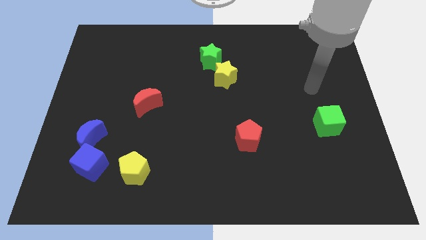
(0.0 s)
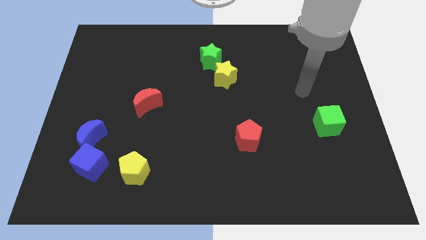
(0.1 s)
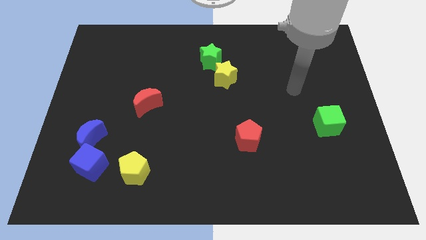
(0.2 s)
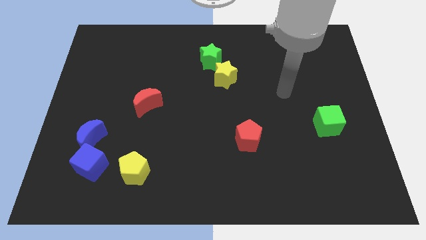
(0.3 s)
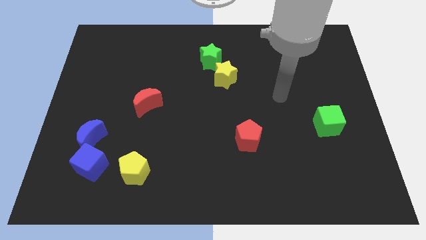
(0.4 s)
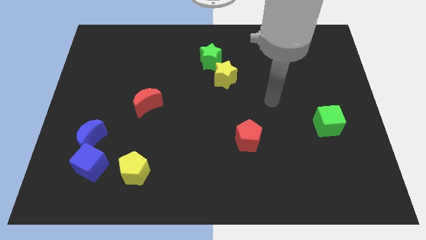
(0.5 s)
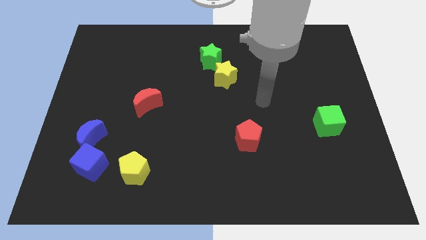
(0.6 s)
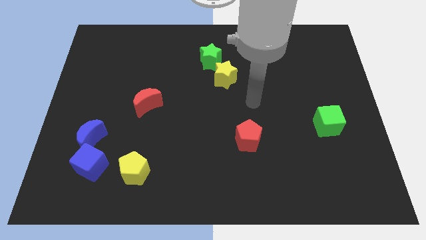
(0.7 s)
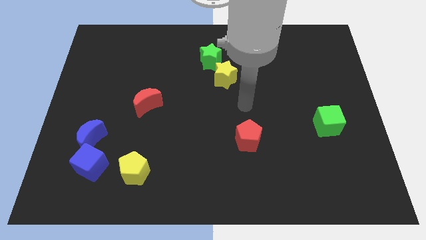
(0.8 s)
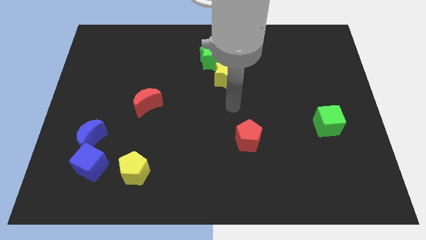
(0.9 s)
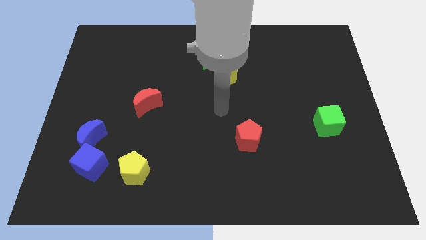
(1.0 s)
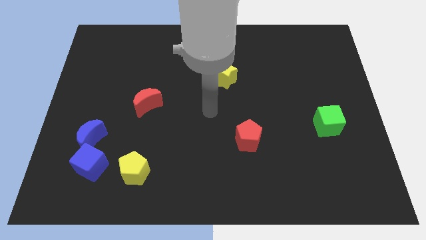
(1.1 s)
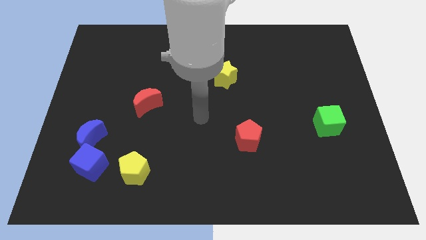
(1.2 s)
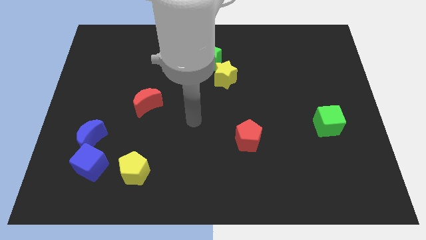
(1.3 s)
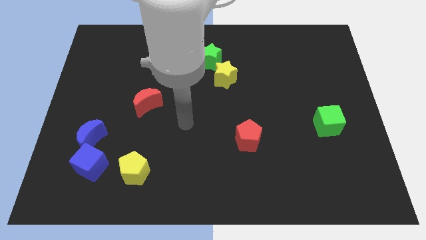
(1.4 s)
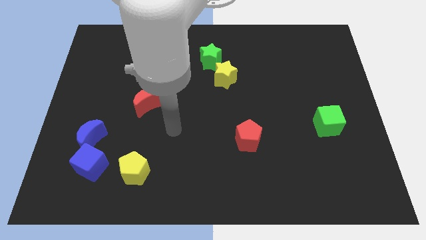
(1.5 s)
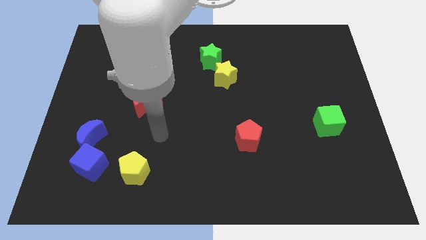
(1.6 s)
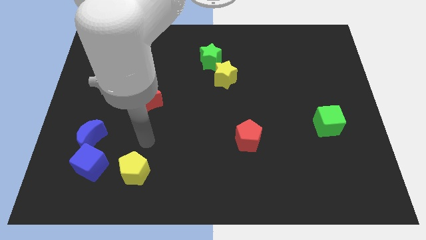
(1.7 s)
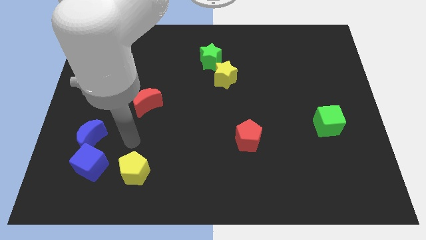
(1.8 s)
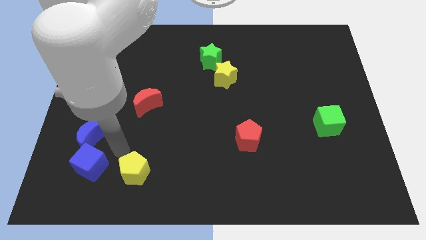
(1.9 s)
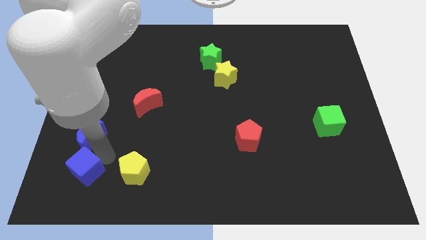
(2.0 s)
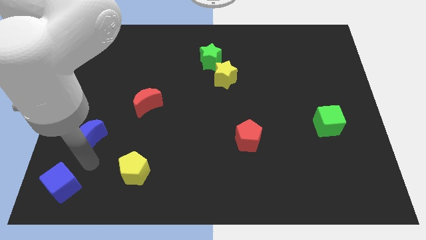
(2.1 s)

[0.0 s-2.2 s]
separate the blue moon from the blue cube

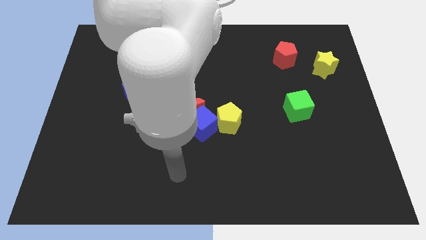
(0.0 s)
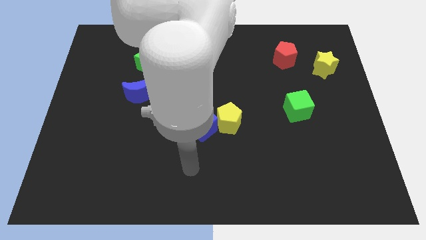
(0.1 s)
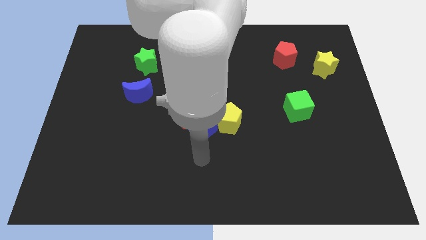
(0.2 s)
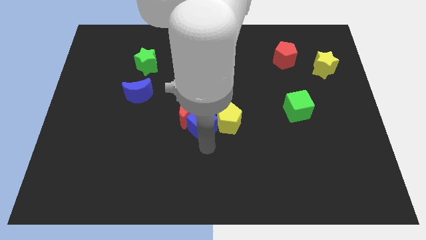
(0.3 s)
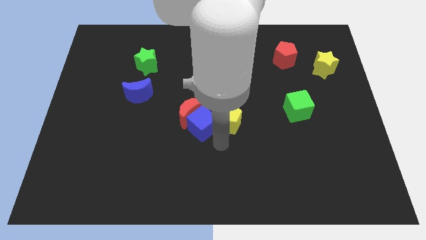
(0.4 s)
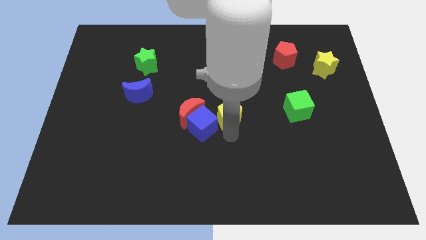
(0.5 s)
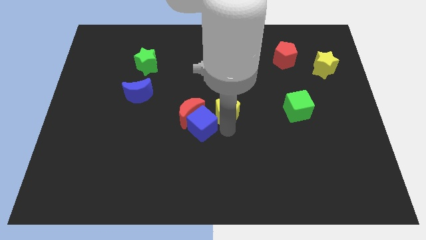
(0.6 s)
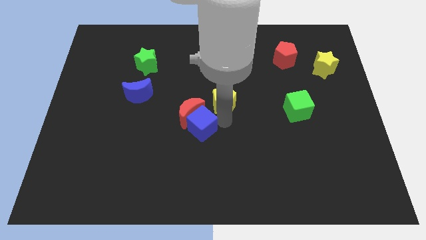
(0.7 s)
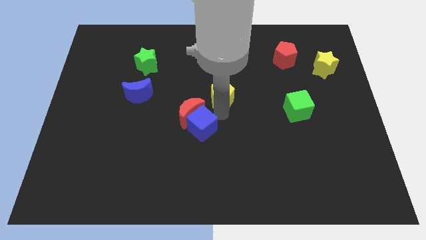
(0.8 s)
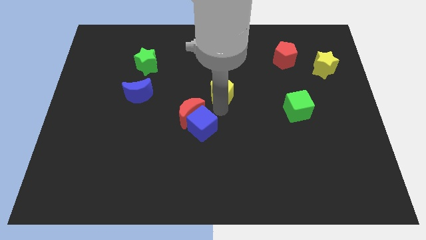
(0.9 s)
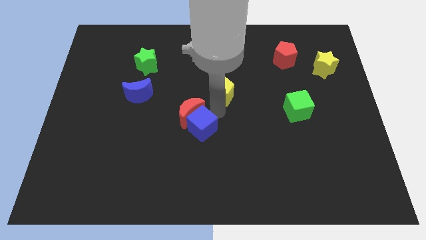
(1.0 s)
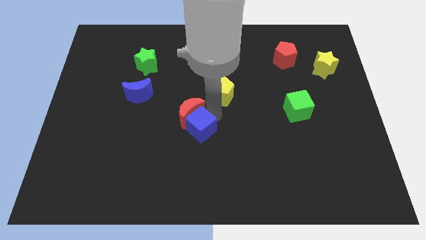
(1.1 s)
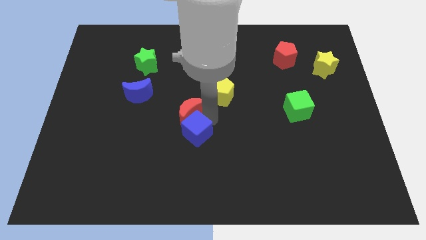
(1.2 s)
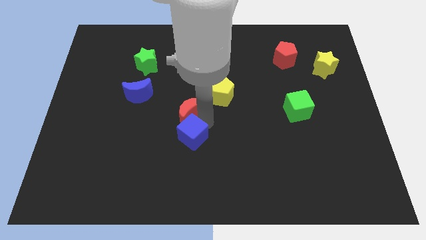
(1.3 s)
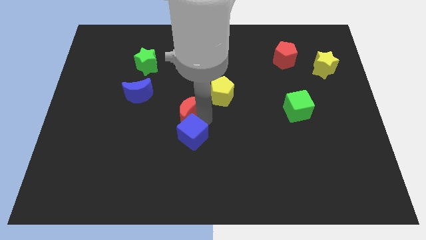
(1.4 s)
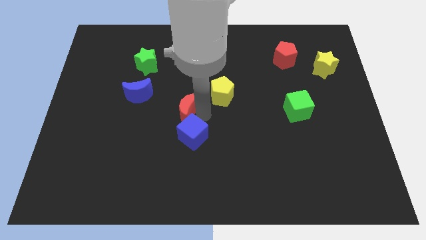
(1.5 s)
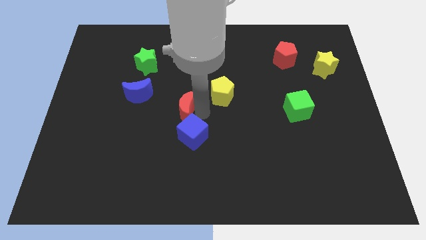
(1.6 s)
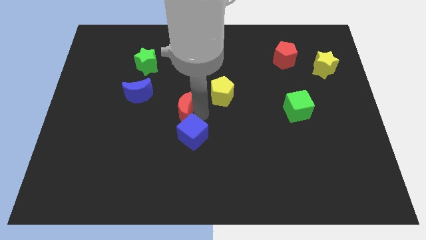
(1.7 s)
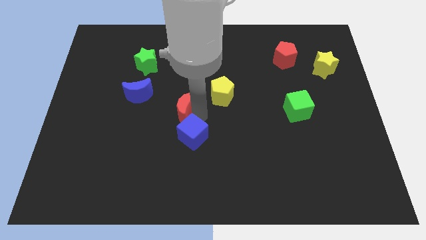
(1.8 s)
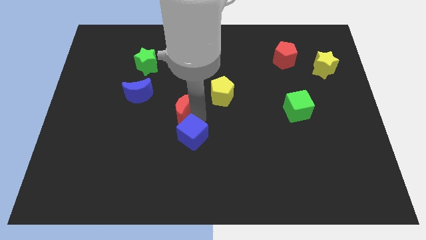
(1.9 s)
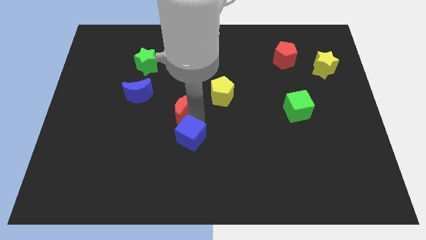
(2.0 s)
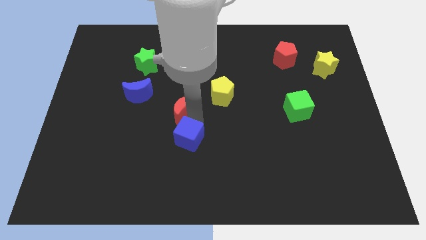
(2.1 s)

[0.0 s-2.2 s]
move the blue cube away from the red moon and yellow pentagon

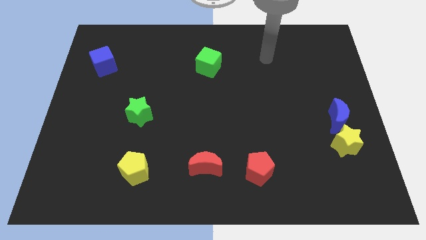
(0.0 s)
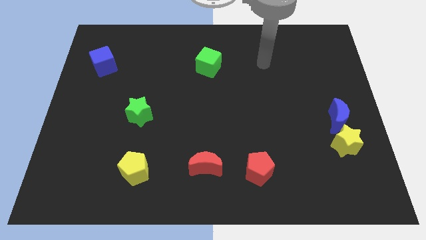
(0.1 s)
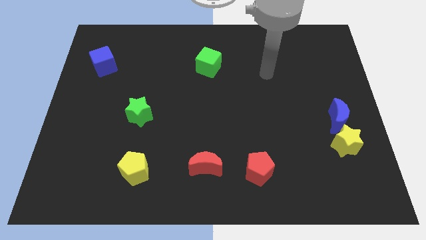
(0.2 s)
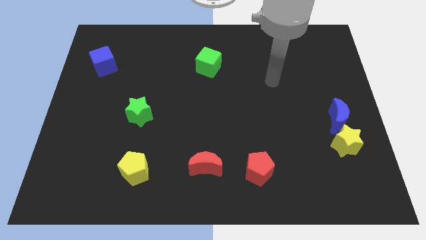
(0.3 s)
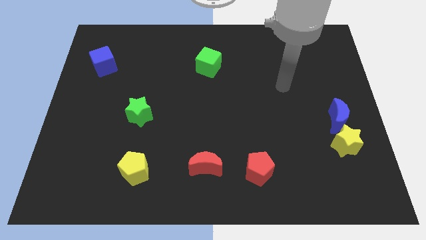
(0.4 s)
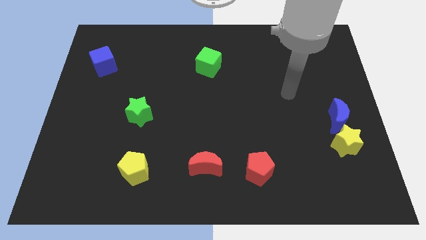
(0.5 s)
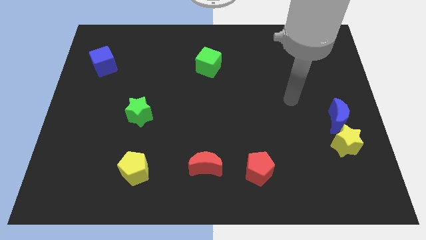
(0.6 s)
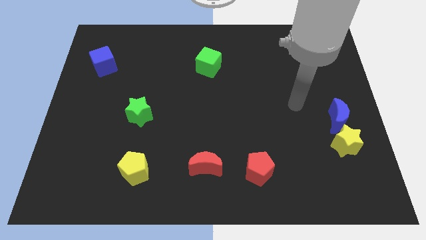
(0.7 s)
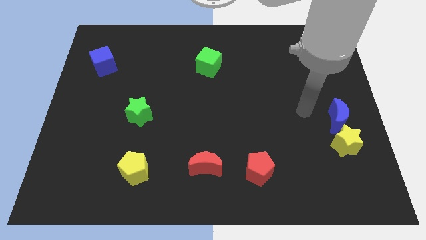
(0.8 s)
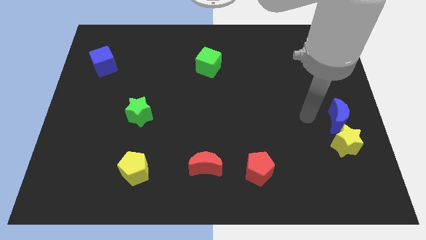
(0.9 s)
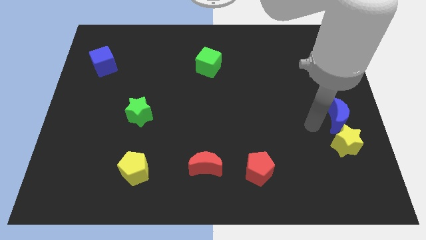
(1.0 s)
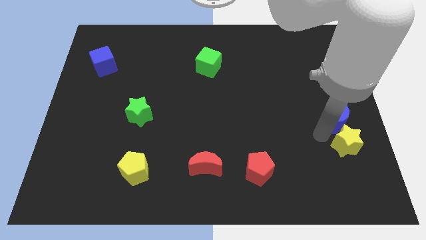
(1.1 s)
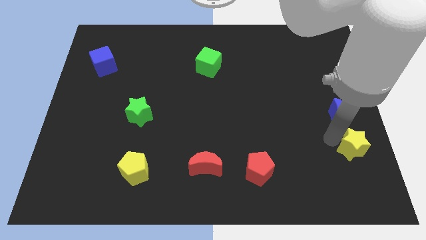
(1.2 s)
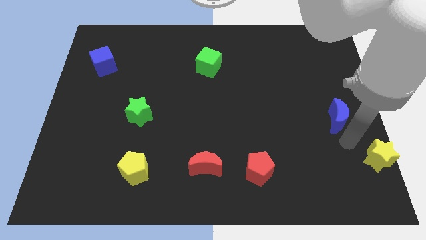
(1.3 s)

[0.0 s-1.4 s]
separate the blue moon from the yellow star

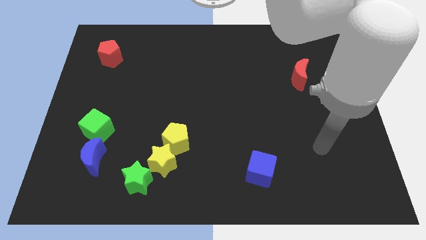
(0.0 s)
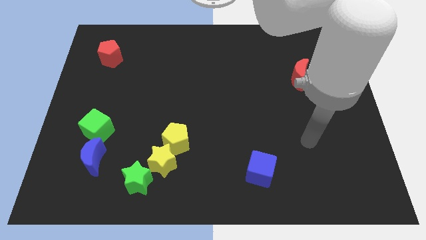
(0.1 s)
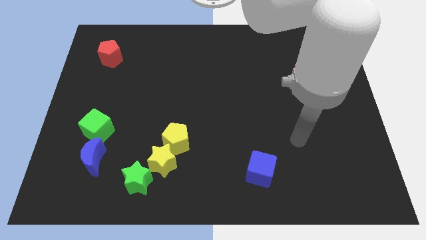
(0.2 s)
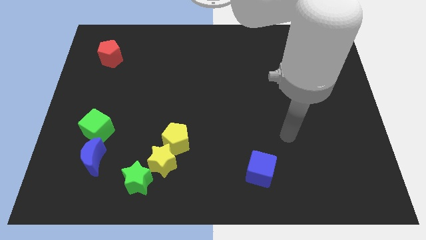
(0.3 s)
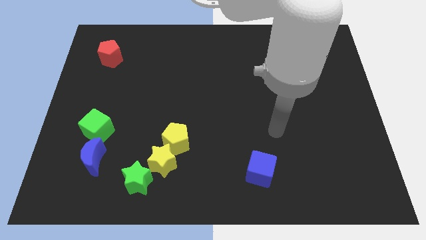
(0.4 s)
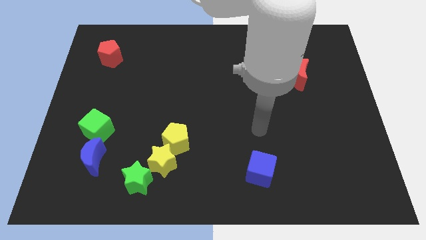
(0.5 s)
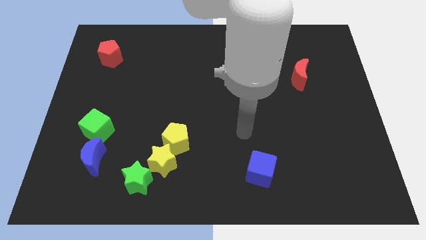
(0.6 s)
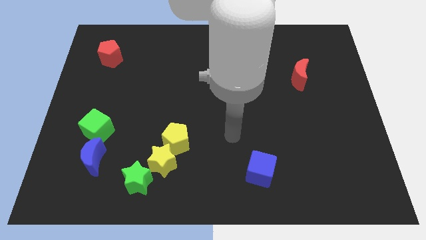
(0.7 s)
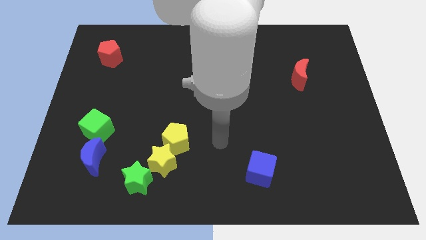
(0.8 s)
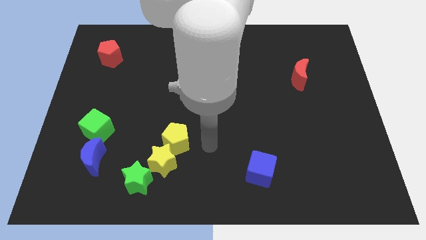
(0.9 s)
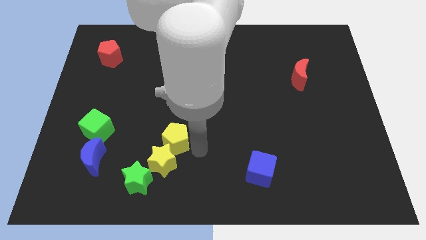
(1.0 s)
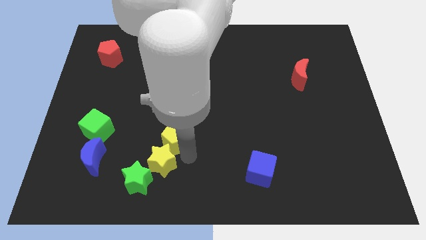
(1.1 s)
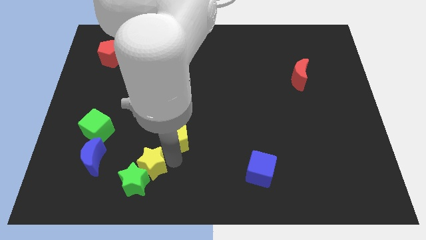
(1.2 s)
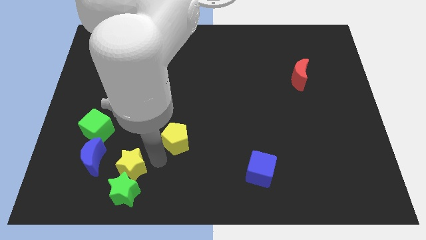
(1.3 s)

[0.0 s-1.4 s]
move the yellow pentagon away from the yellow star

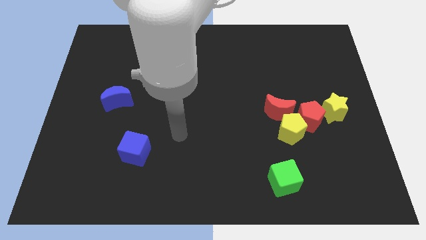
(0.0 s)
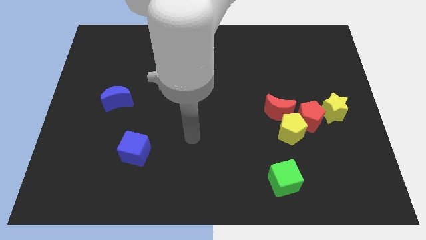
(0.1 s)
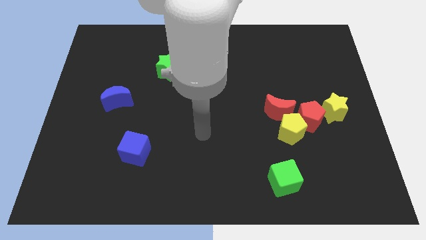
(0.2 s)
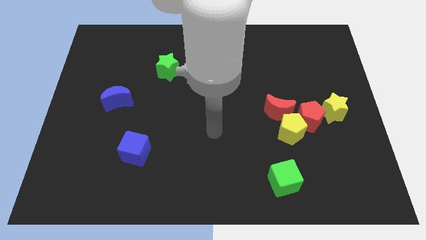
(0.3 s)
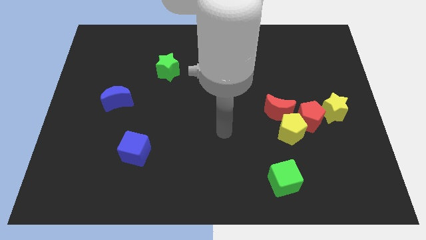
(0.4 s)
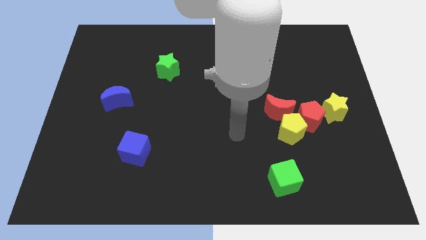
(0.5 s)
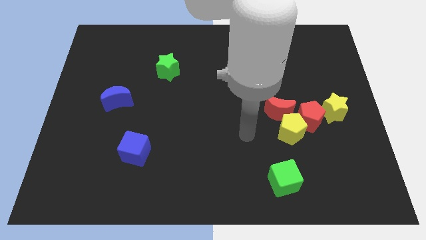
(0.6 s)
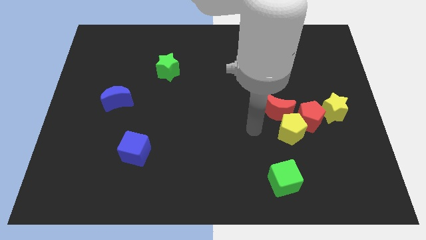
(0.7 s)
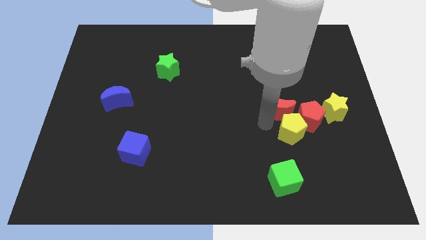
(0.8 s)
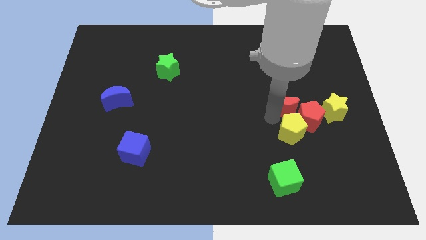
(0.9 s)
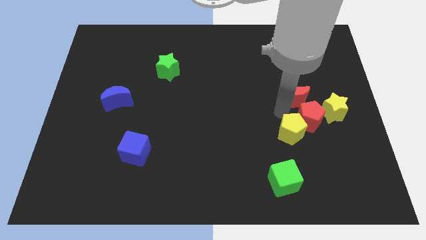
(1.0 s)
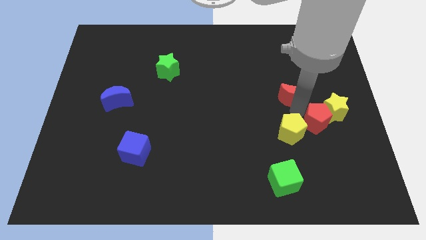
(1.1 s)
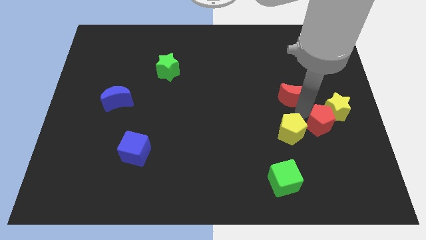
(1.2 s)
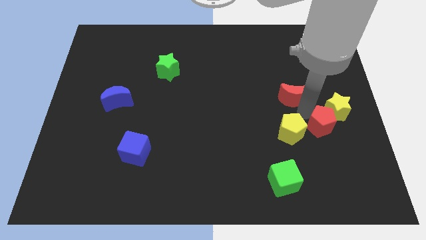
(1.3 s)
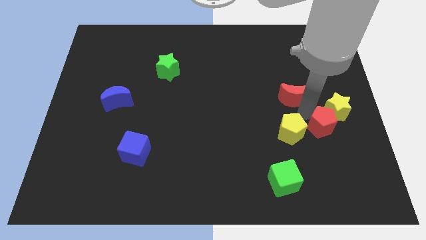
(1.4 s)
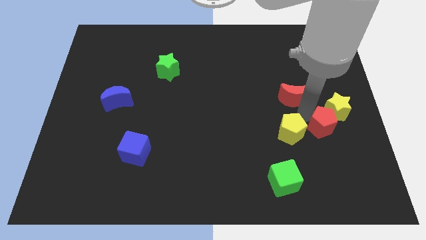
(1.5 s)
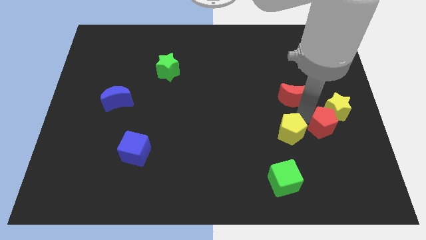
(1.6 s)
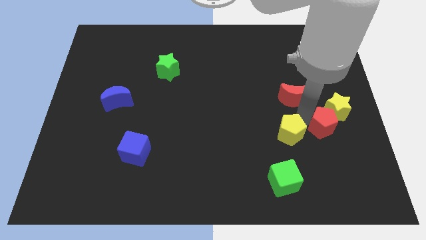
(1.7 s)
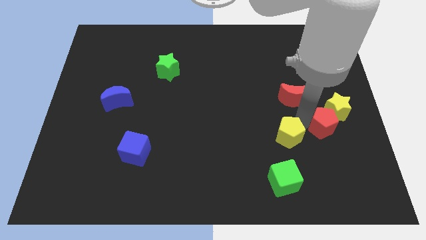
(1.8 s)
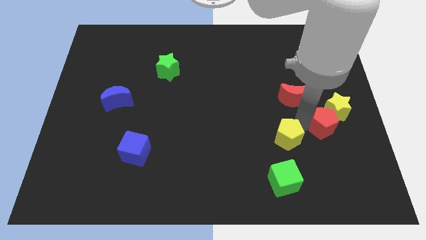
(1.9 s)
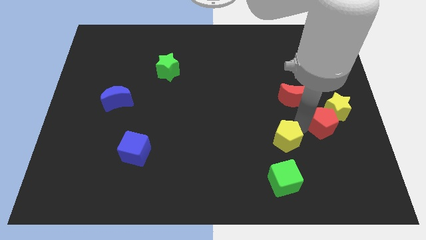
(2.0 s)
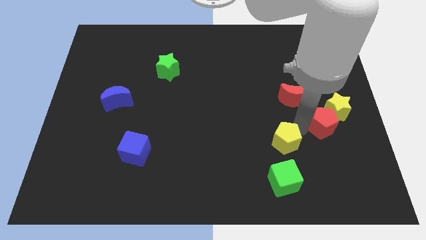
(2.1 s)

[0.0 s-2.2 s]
pull the yellow pentagon apart from the red moon and red pentagon

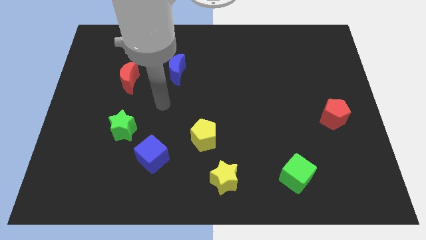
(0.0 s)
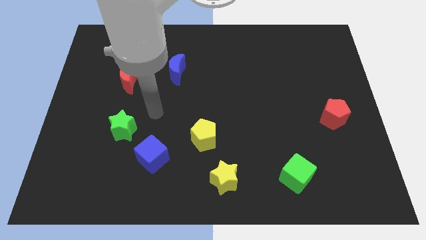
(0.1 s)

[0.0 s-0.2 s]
pull the blue cube apart from the green star
